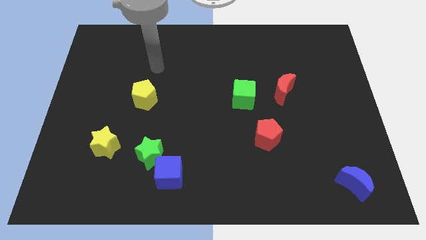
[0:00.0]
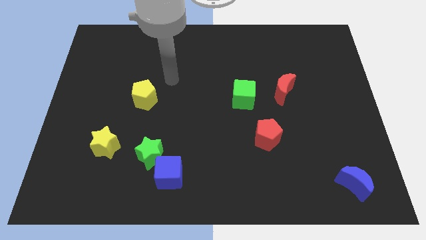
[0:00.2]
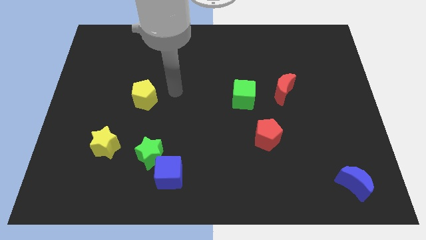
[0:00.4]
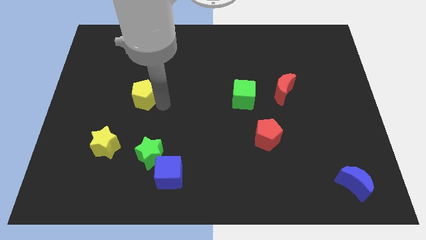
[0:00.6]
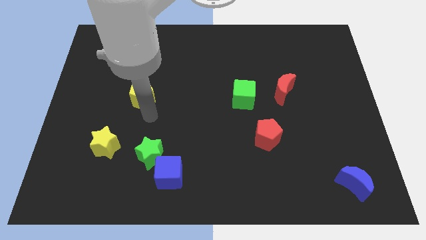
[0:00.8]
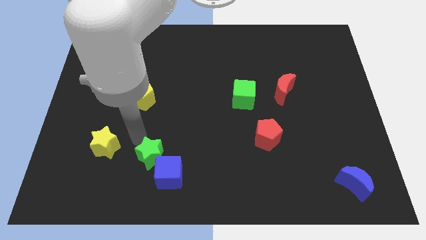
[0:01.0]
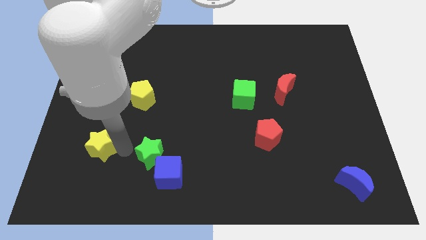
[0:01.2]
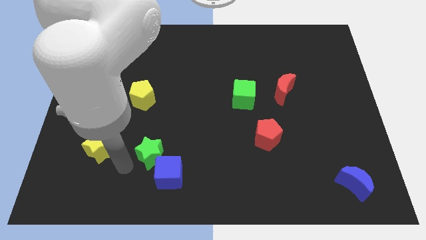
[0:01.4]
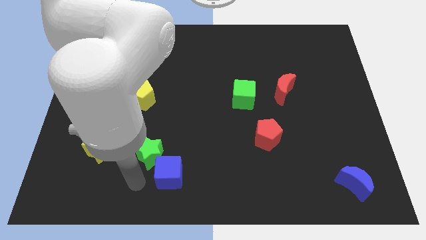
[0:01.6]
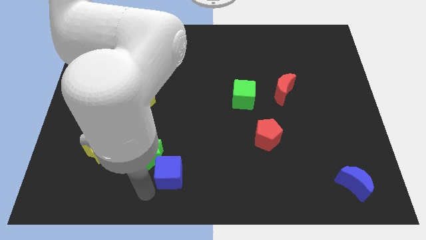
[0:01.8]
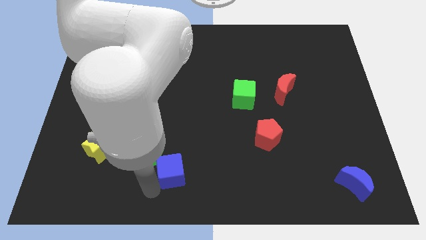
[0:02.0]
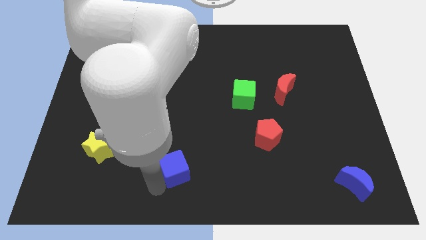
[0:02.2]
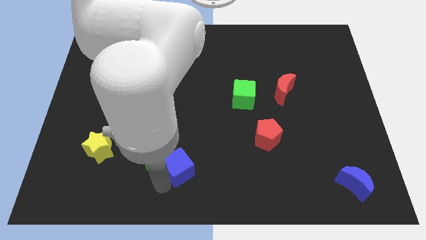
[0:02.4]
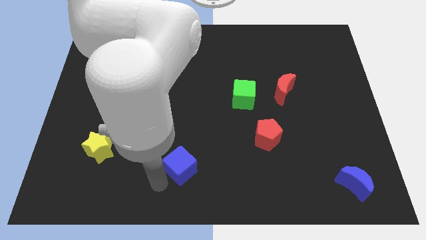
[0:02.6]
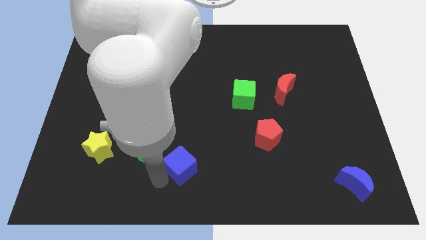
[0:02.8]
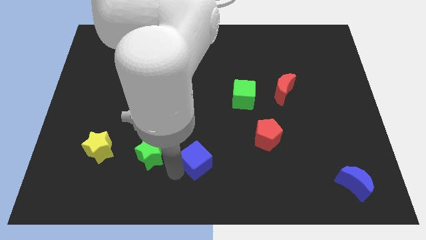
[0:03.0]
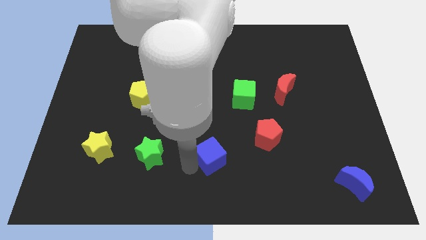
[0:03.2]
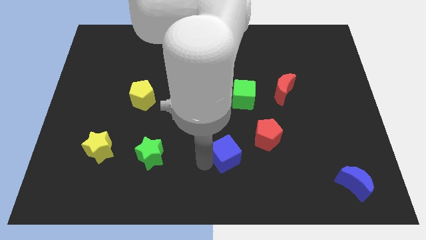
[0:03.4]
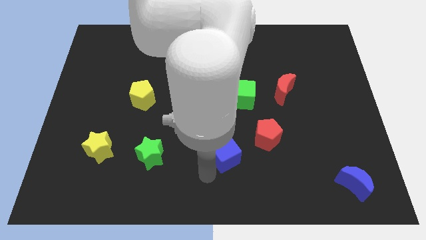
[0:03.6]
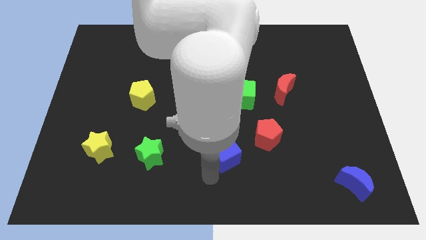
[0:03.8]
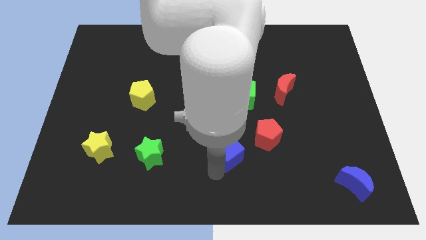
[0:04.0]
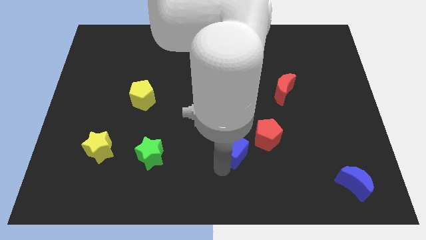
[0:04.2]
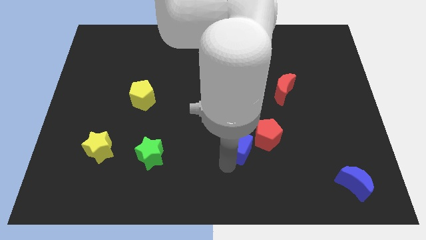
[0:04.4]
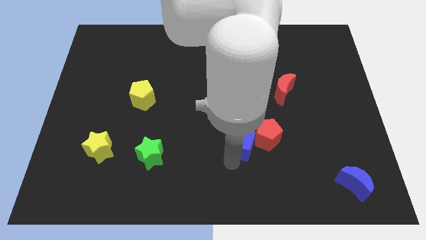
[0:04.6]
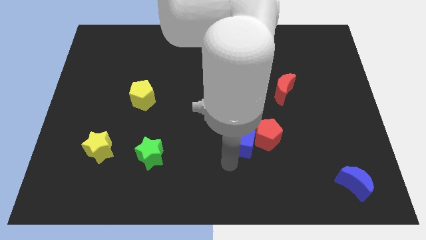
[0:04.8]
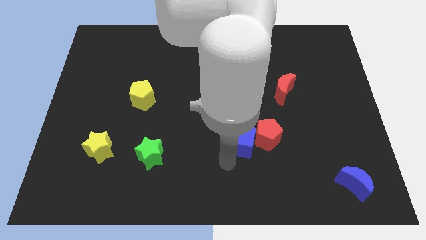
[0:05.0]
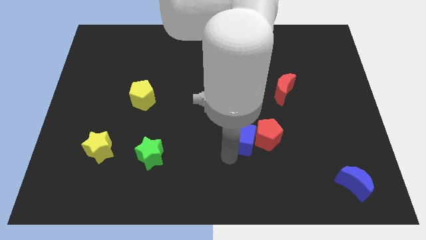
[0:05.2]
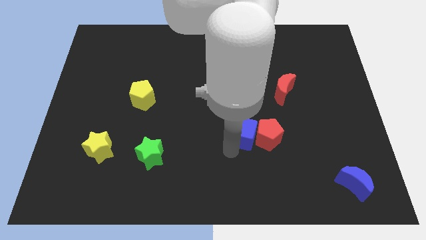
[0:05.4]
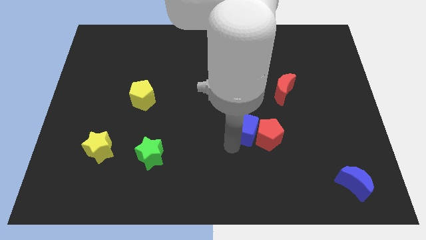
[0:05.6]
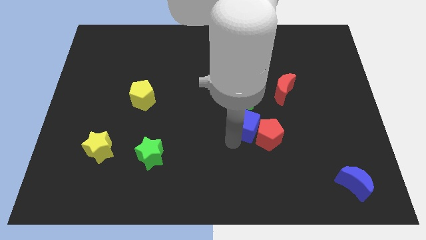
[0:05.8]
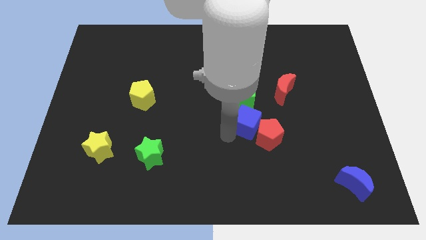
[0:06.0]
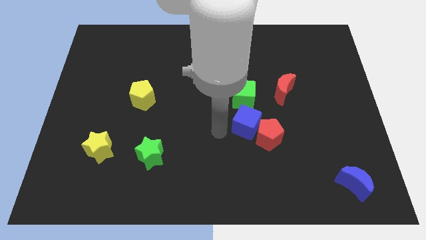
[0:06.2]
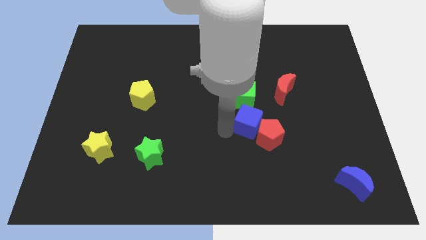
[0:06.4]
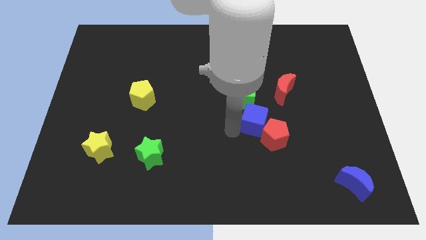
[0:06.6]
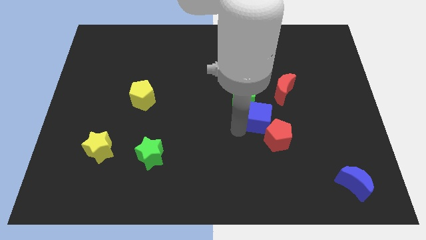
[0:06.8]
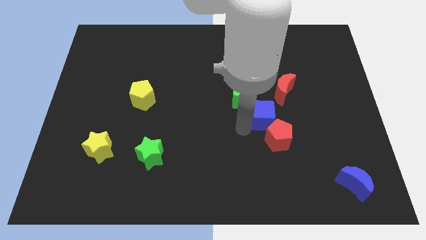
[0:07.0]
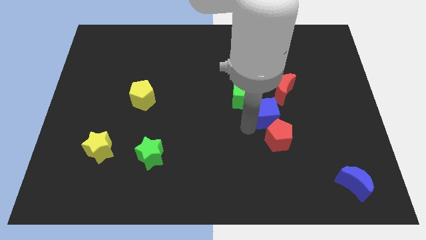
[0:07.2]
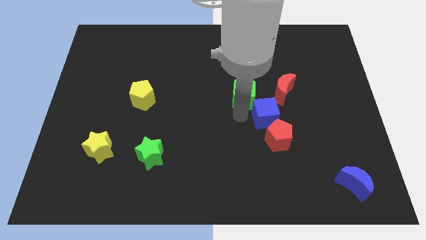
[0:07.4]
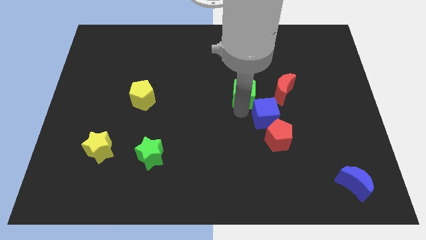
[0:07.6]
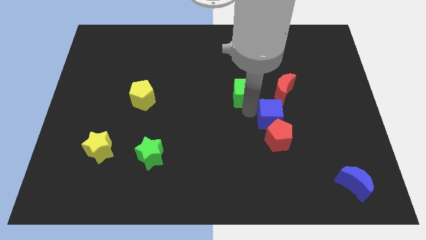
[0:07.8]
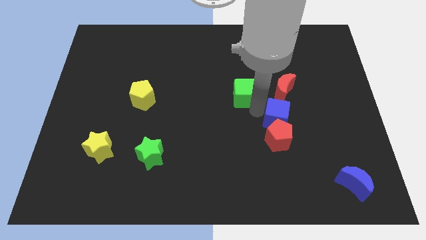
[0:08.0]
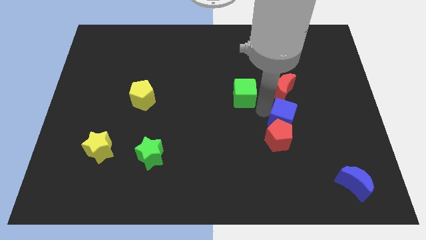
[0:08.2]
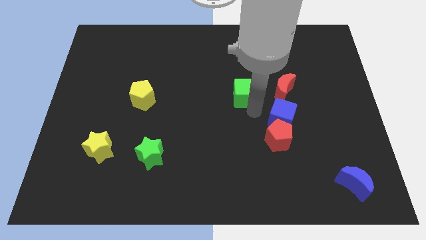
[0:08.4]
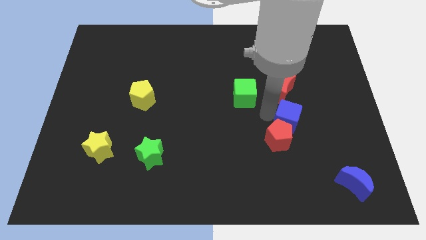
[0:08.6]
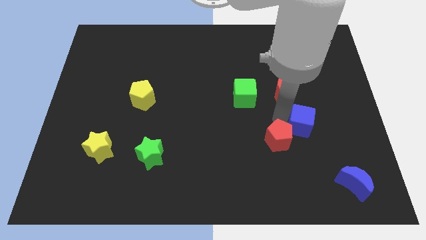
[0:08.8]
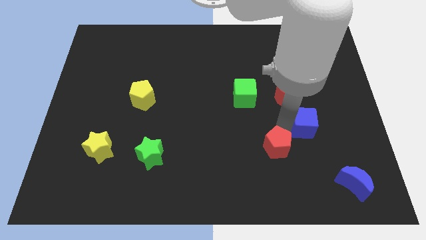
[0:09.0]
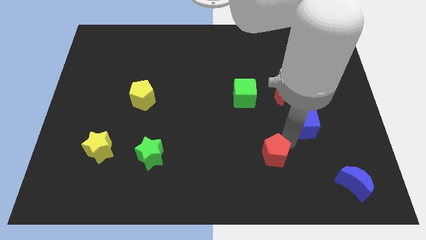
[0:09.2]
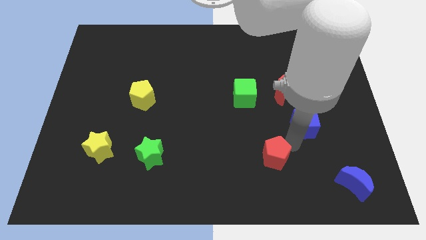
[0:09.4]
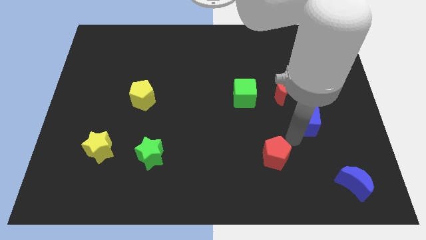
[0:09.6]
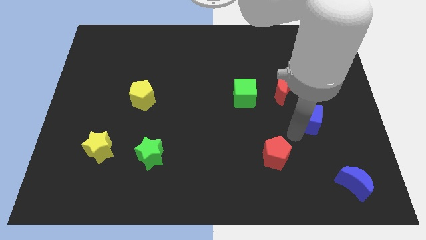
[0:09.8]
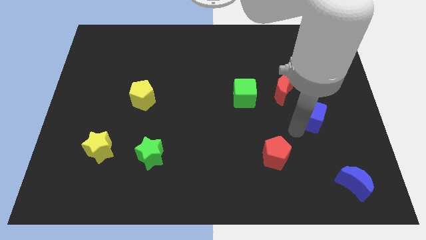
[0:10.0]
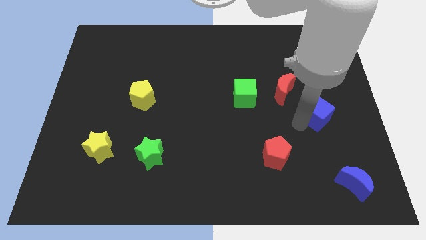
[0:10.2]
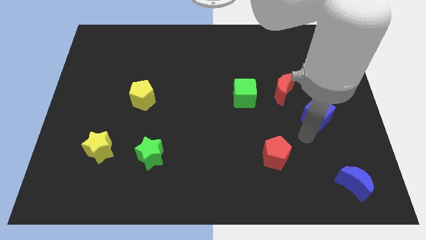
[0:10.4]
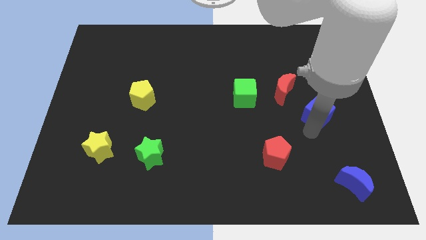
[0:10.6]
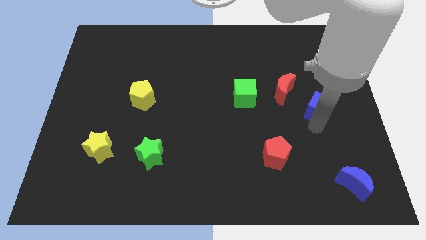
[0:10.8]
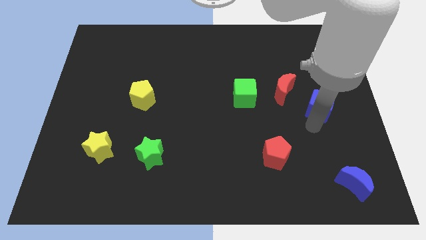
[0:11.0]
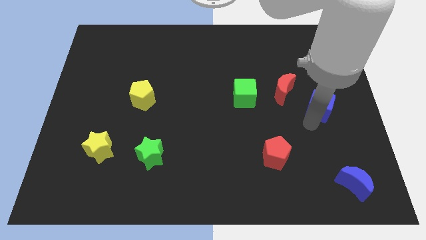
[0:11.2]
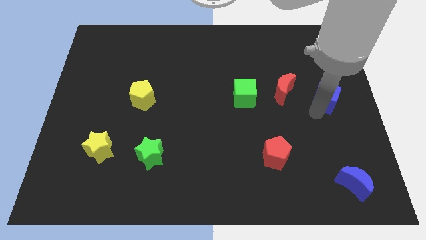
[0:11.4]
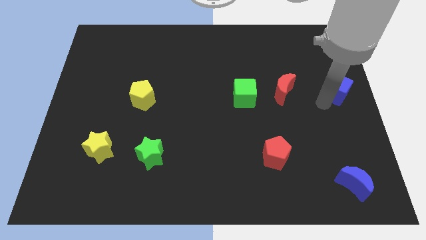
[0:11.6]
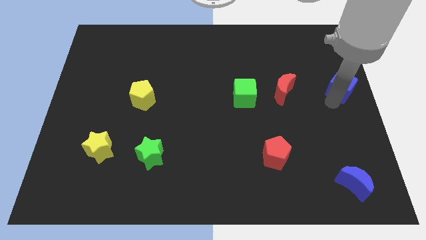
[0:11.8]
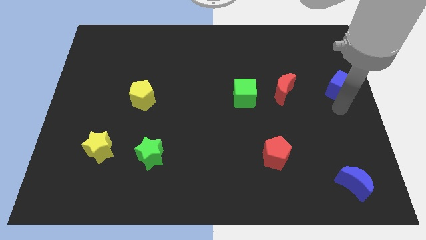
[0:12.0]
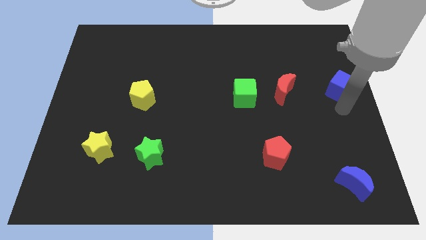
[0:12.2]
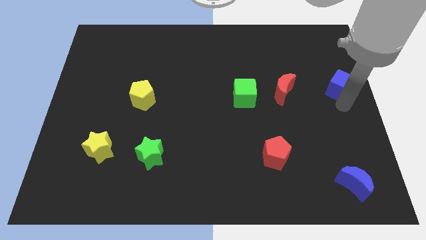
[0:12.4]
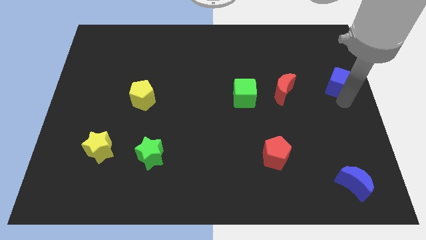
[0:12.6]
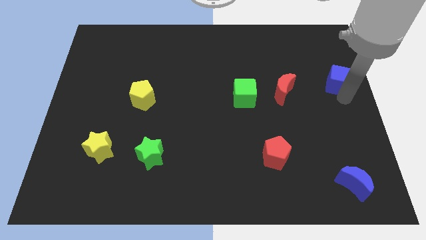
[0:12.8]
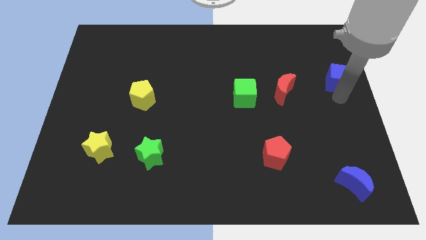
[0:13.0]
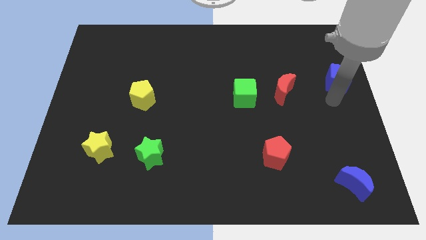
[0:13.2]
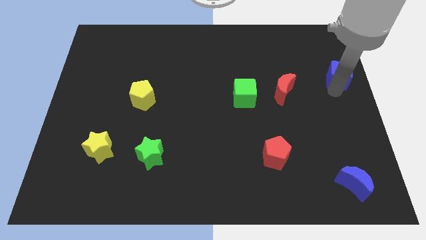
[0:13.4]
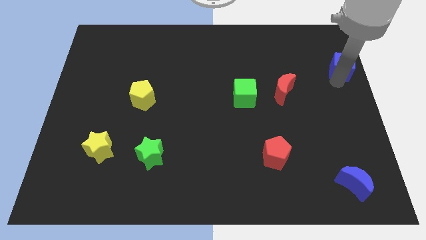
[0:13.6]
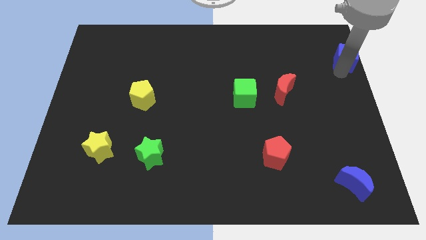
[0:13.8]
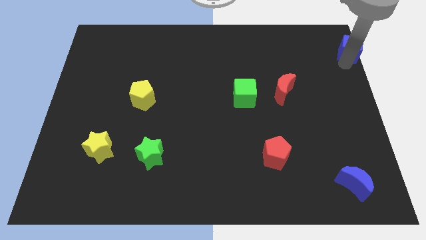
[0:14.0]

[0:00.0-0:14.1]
move the blue cube to the upper right corner
